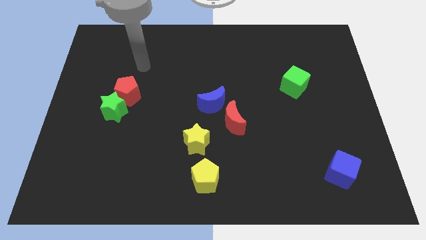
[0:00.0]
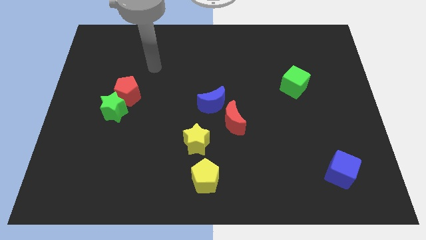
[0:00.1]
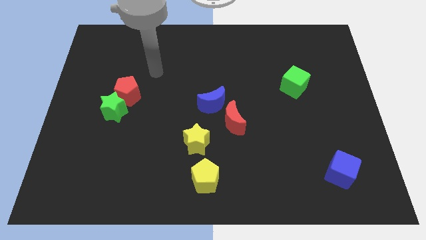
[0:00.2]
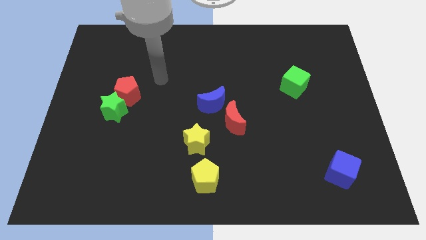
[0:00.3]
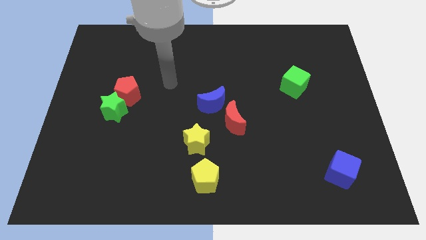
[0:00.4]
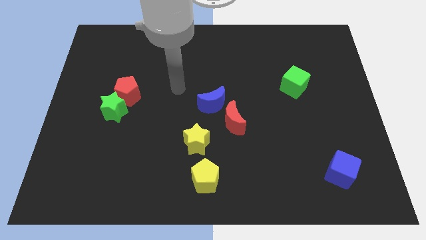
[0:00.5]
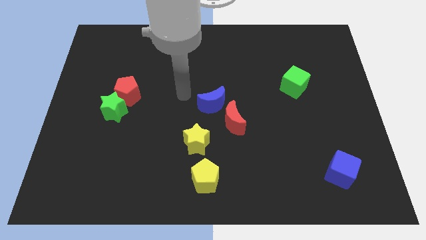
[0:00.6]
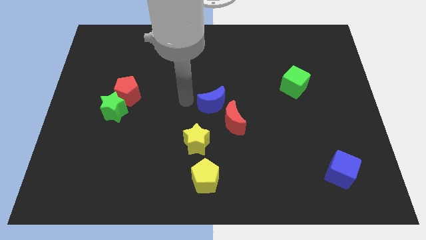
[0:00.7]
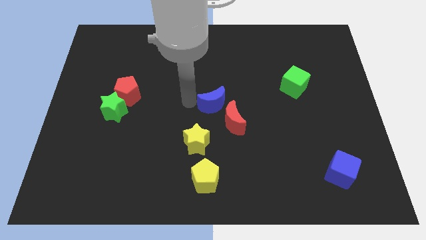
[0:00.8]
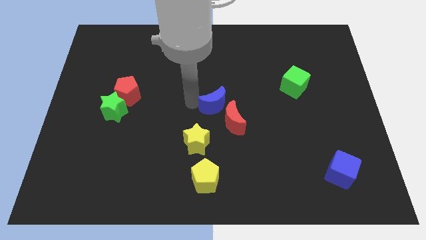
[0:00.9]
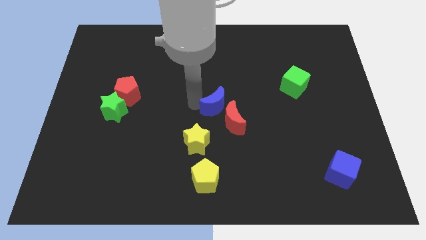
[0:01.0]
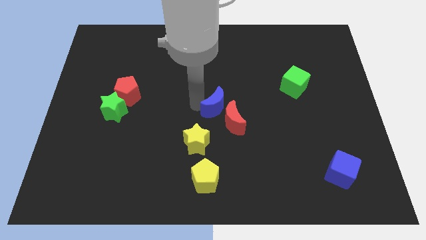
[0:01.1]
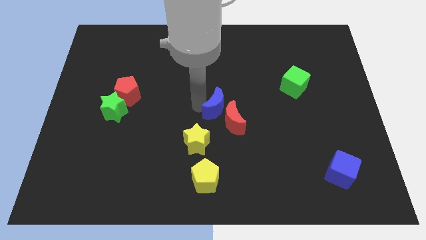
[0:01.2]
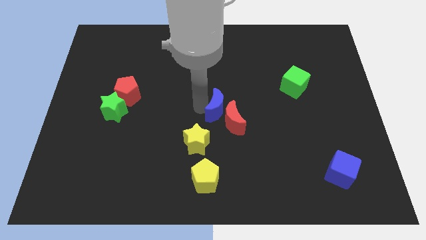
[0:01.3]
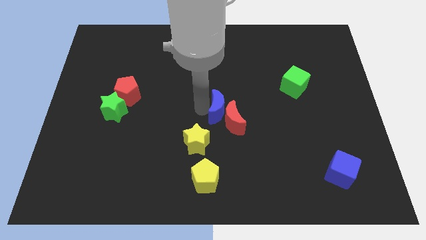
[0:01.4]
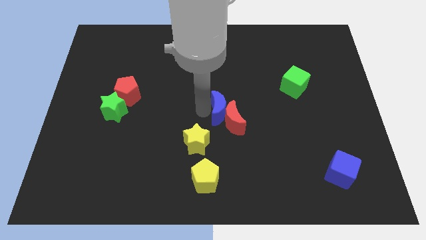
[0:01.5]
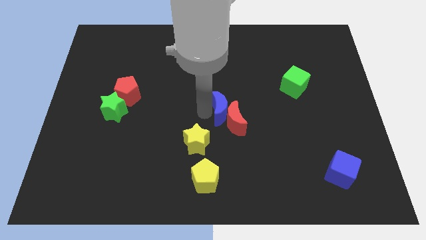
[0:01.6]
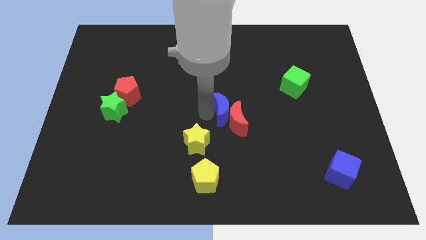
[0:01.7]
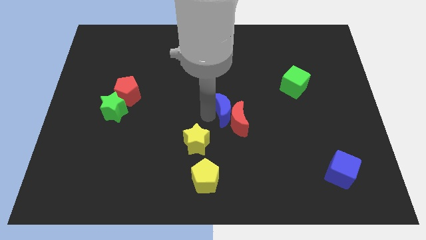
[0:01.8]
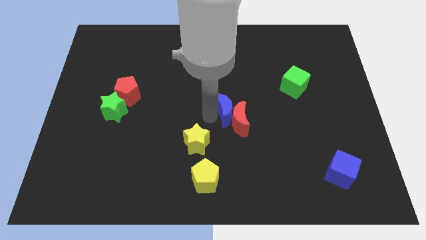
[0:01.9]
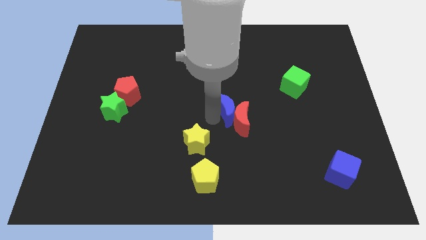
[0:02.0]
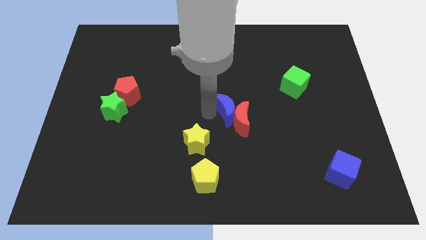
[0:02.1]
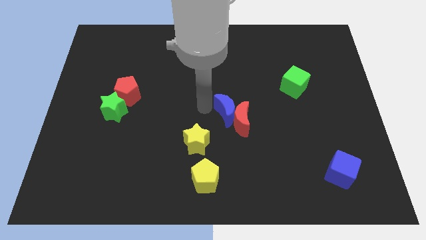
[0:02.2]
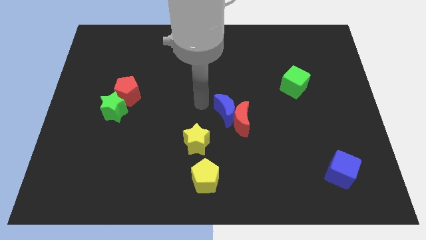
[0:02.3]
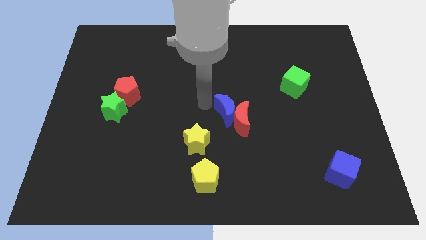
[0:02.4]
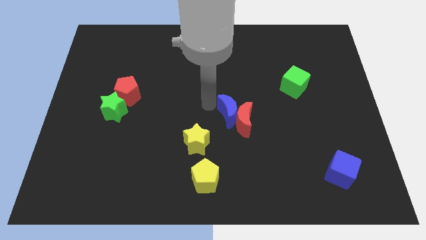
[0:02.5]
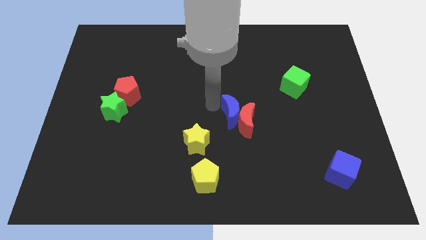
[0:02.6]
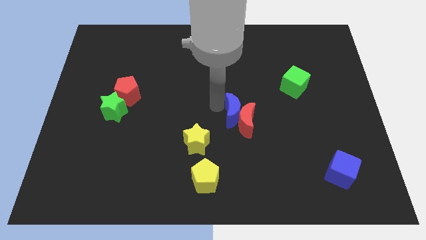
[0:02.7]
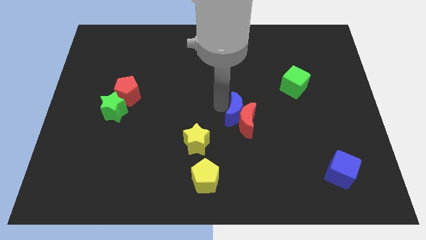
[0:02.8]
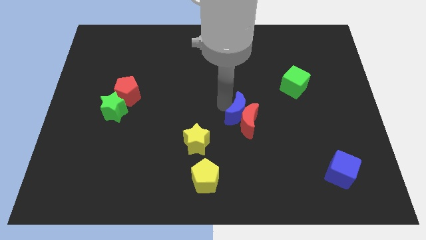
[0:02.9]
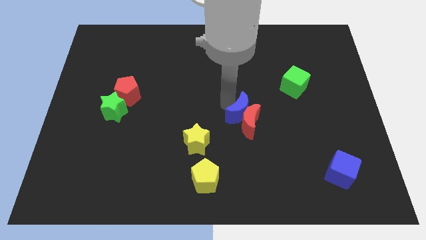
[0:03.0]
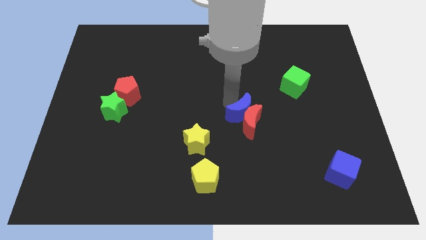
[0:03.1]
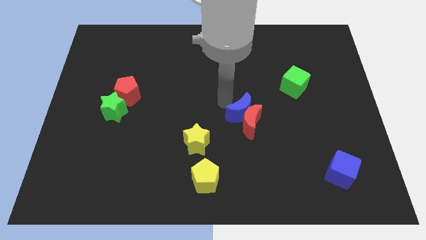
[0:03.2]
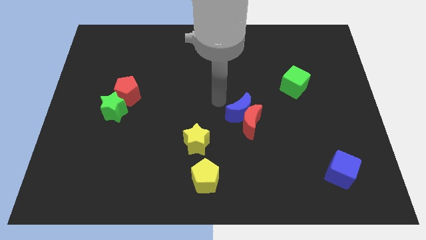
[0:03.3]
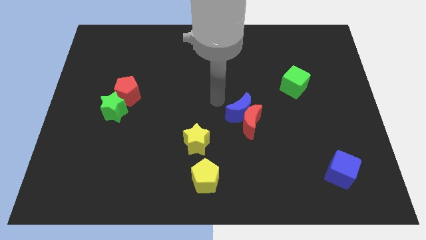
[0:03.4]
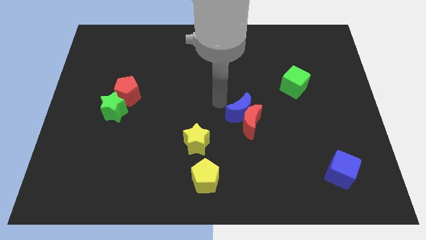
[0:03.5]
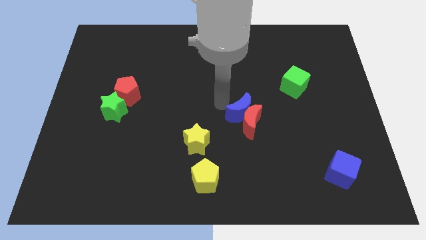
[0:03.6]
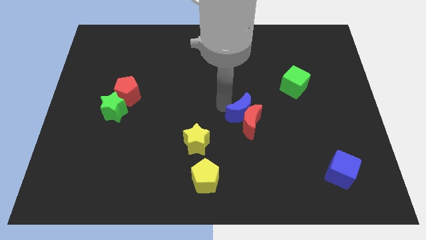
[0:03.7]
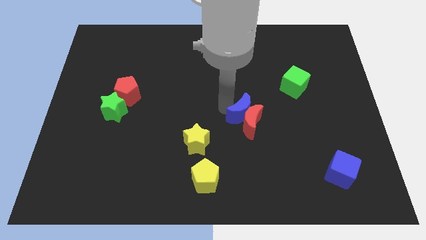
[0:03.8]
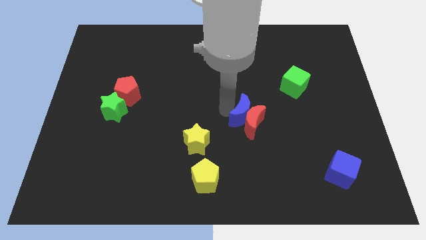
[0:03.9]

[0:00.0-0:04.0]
slide the blue moon slightly downwards and right diagonally

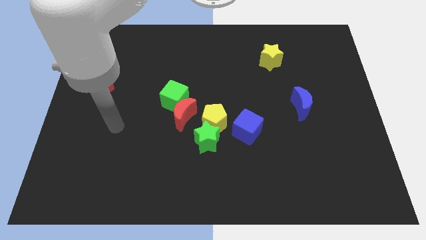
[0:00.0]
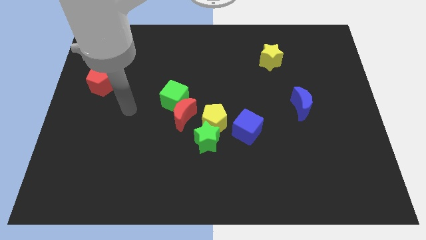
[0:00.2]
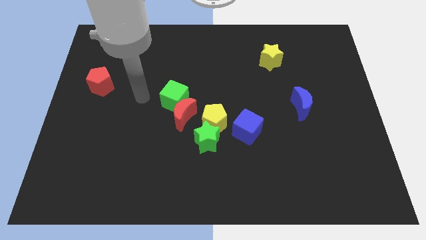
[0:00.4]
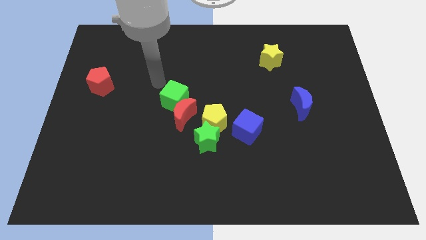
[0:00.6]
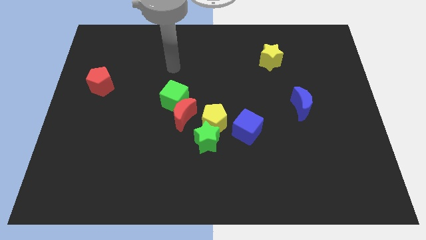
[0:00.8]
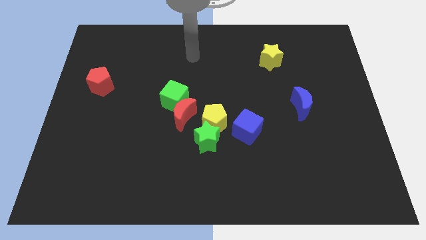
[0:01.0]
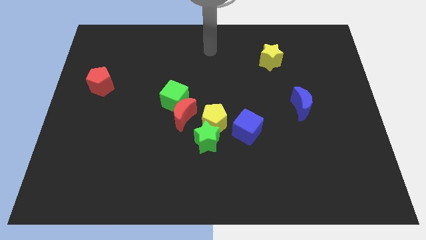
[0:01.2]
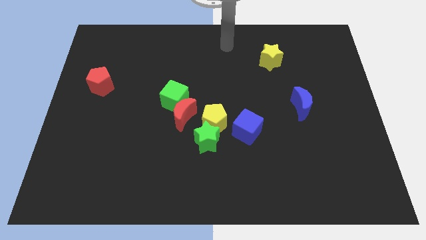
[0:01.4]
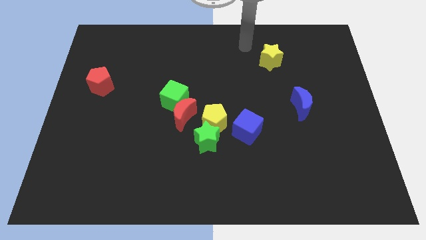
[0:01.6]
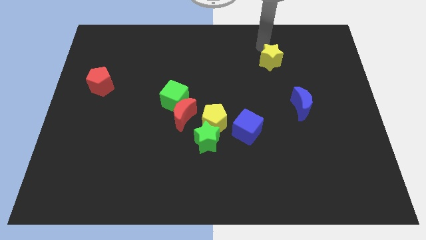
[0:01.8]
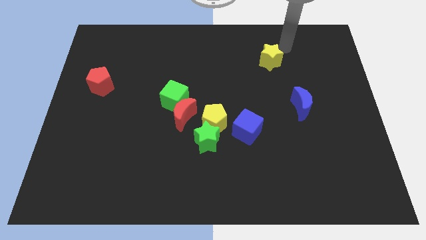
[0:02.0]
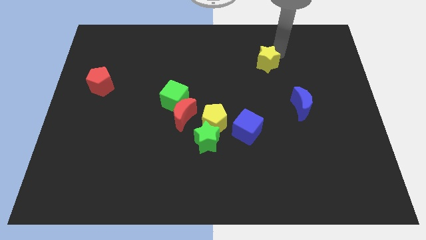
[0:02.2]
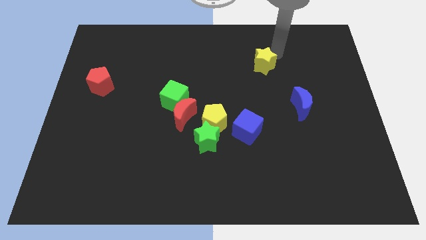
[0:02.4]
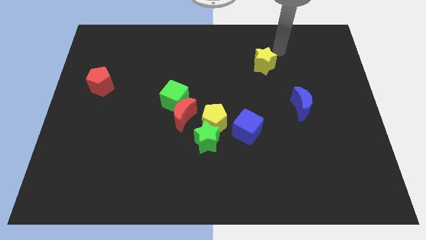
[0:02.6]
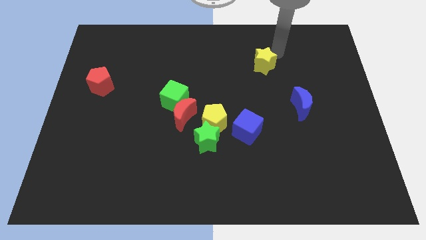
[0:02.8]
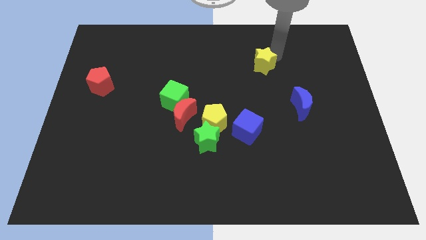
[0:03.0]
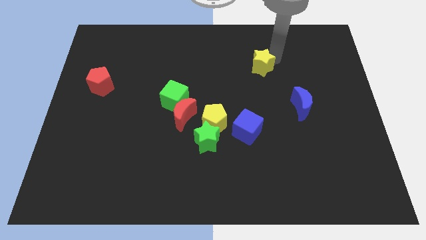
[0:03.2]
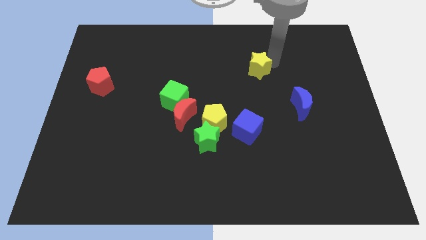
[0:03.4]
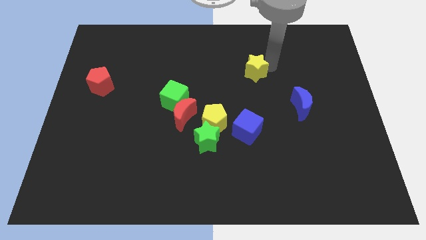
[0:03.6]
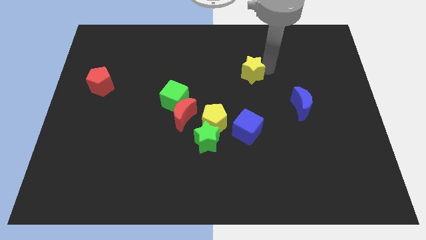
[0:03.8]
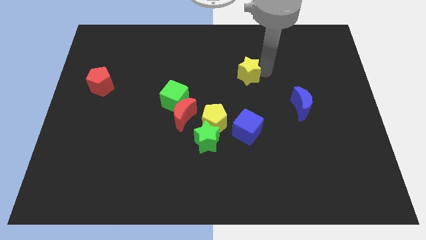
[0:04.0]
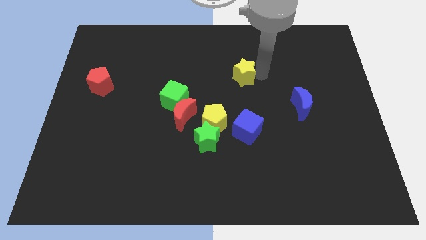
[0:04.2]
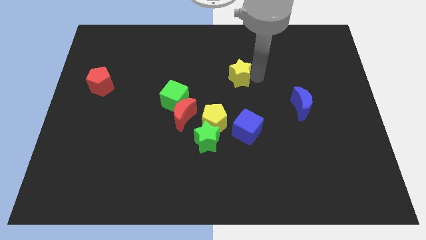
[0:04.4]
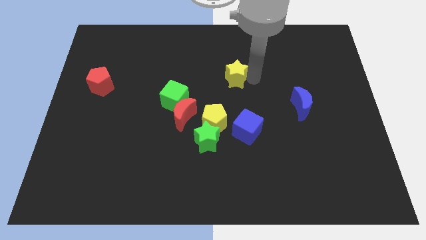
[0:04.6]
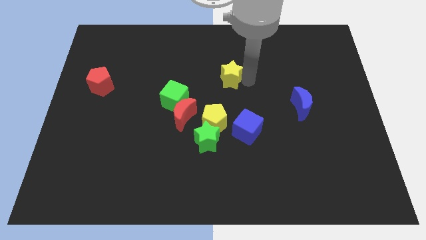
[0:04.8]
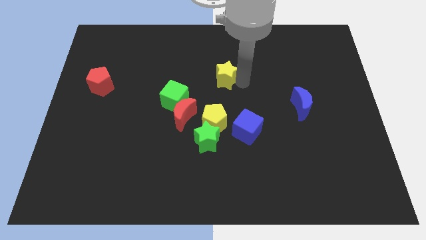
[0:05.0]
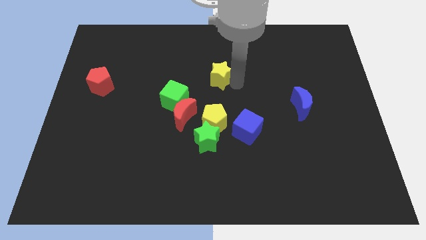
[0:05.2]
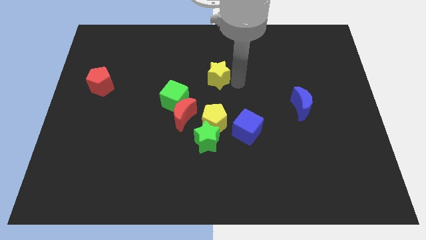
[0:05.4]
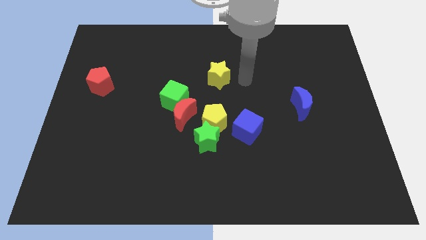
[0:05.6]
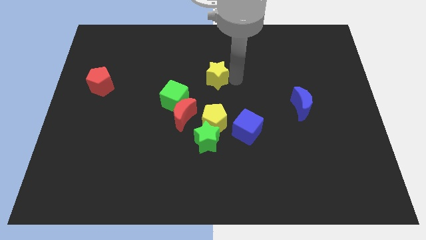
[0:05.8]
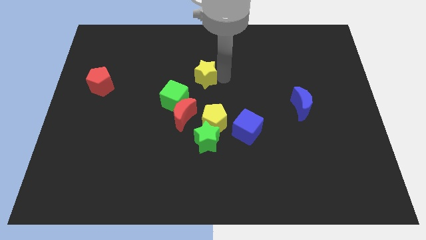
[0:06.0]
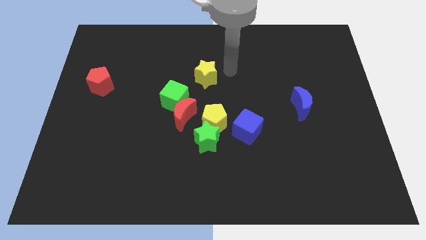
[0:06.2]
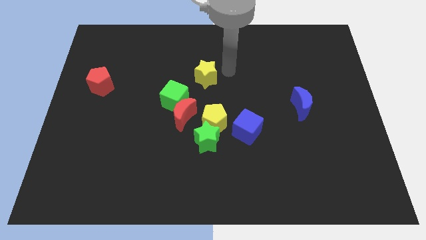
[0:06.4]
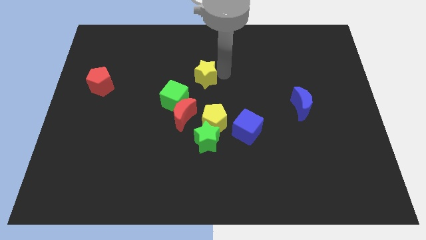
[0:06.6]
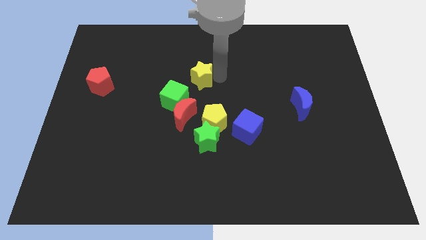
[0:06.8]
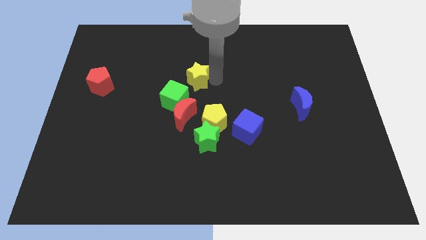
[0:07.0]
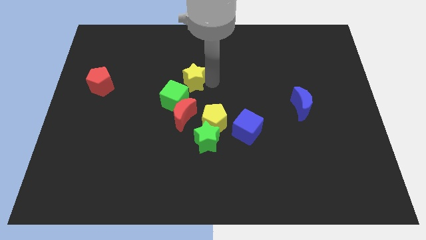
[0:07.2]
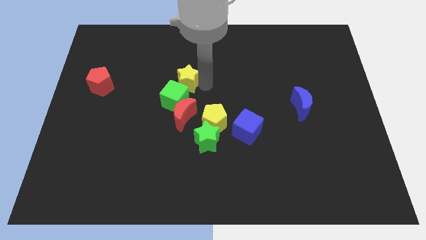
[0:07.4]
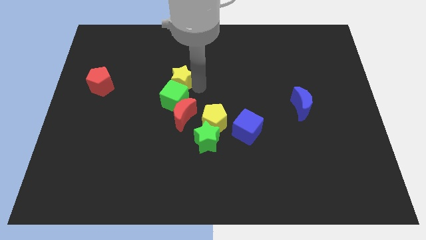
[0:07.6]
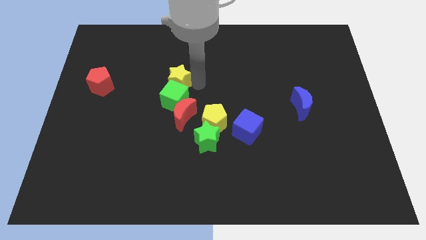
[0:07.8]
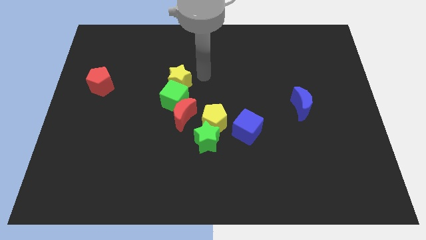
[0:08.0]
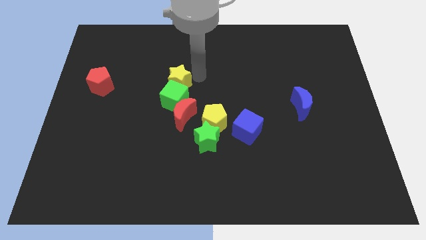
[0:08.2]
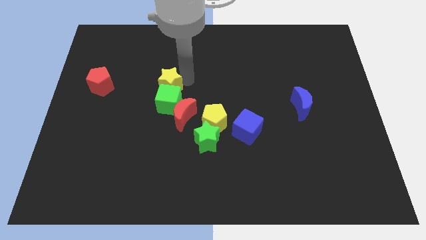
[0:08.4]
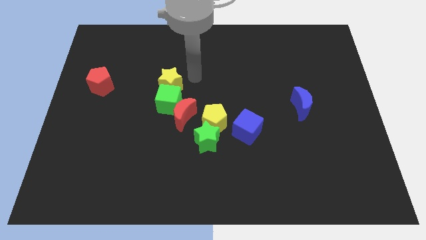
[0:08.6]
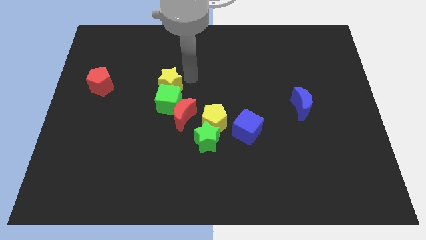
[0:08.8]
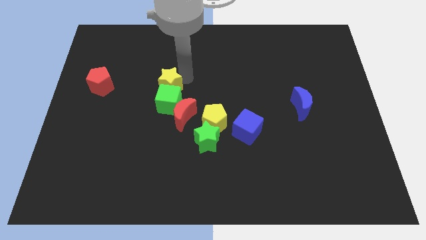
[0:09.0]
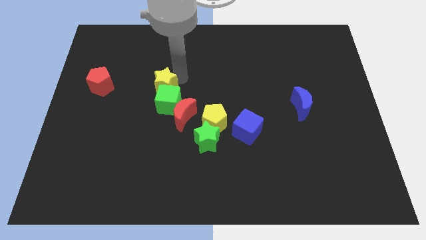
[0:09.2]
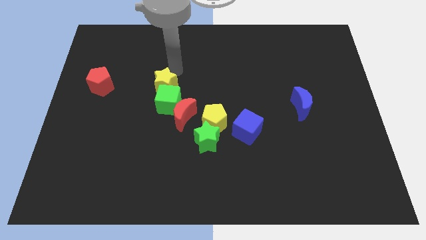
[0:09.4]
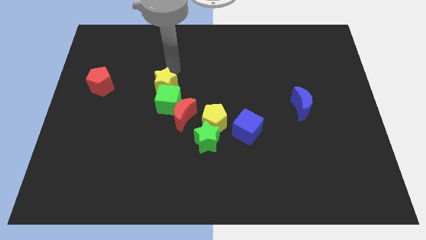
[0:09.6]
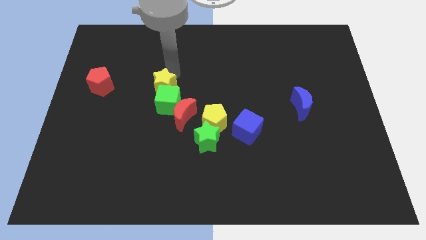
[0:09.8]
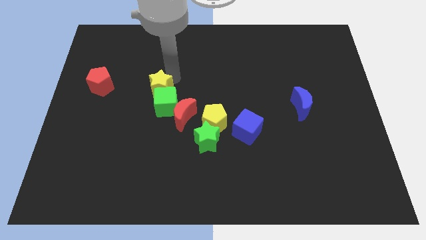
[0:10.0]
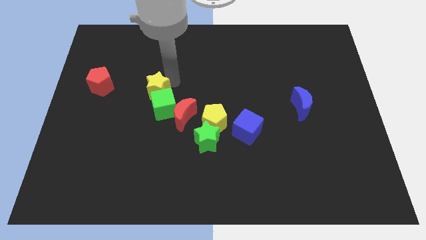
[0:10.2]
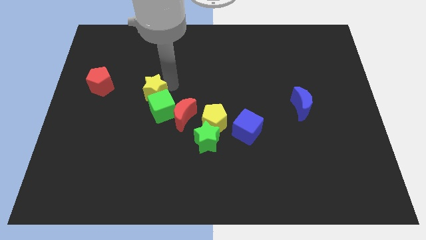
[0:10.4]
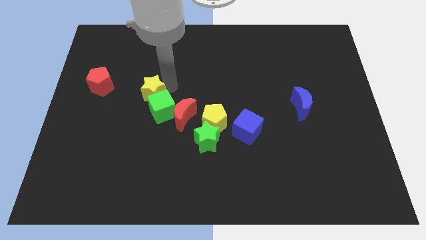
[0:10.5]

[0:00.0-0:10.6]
move the yellow star down and to the left
